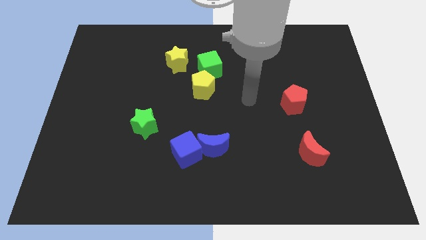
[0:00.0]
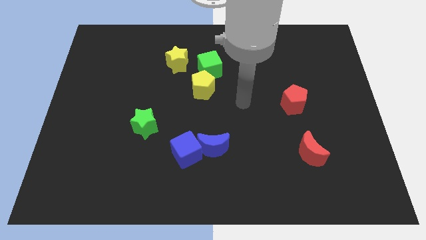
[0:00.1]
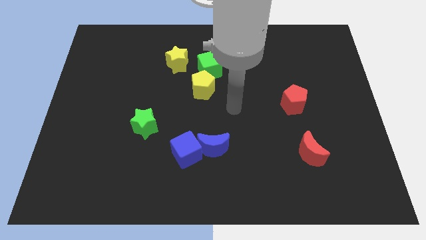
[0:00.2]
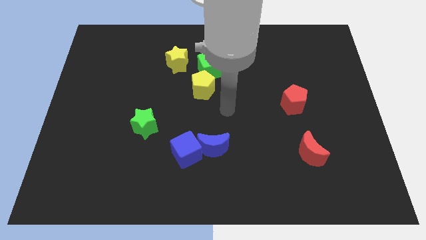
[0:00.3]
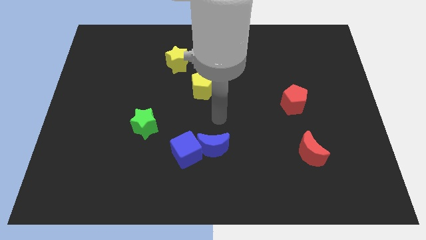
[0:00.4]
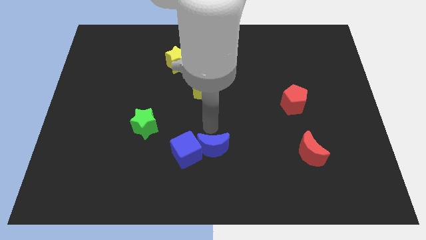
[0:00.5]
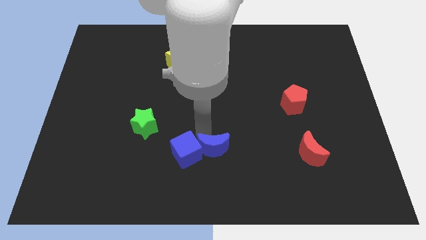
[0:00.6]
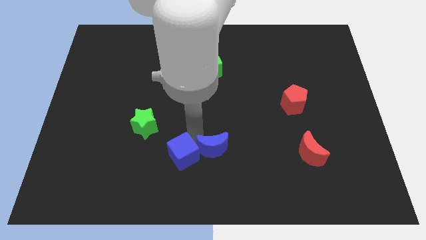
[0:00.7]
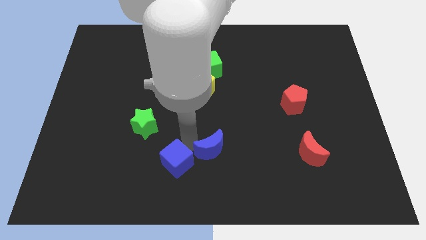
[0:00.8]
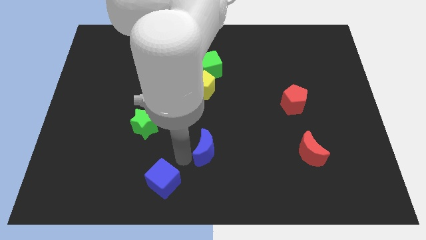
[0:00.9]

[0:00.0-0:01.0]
separate the blue moon from the blue cube

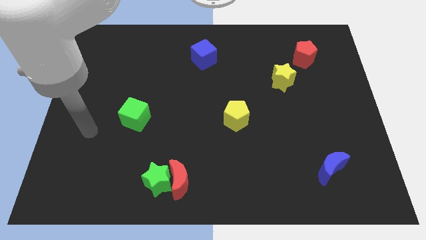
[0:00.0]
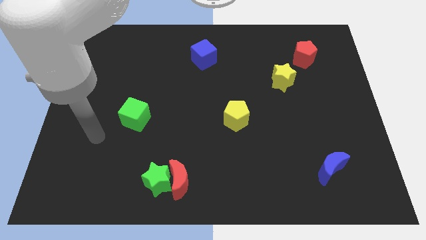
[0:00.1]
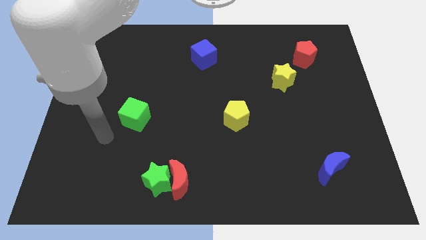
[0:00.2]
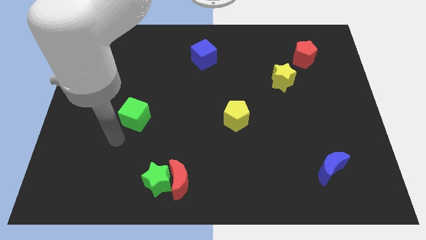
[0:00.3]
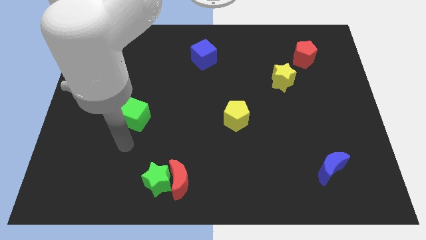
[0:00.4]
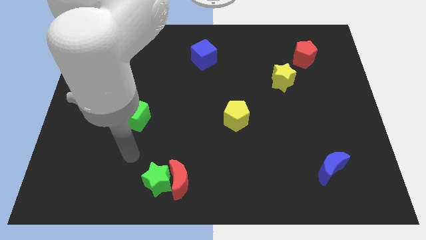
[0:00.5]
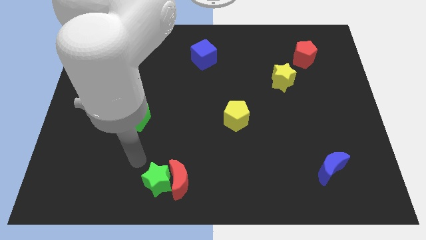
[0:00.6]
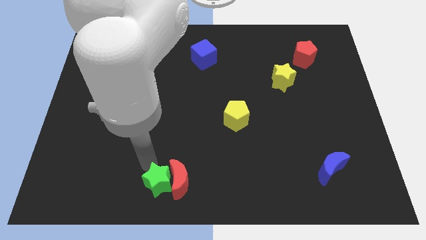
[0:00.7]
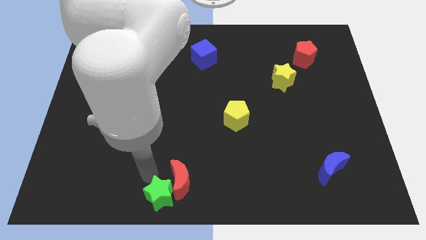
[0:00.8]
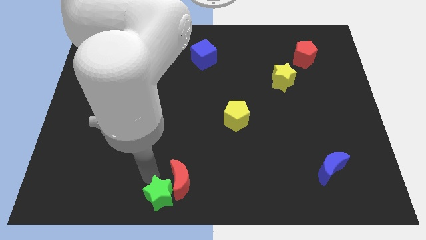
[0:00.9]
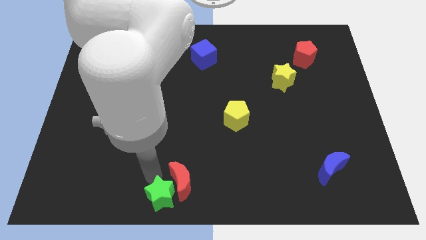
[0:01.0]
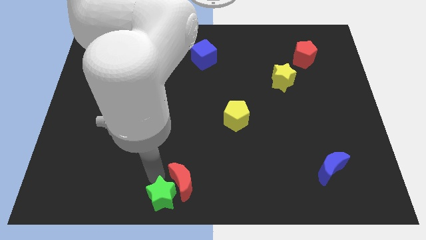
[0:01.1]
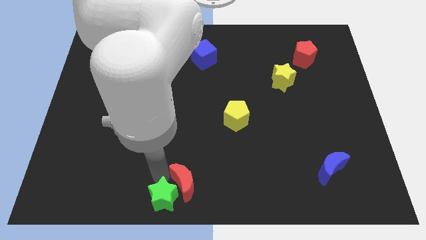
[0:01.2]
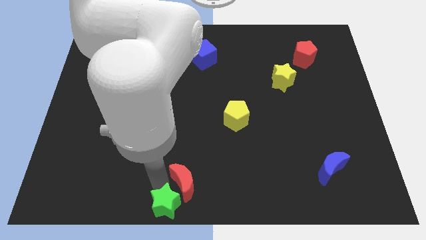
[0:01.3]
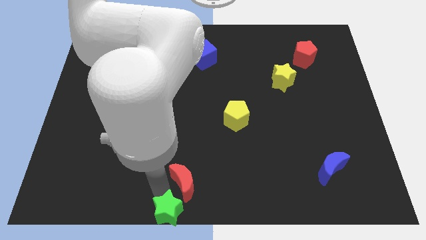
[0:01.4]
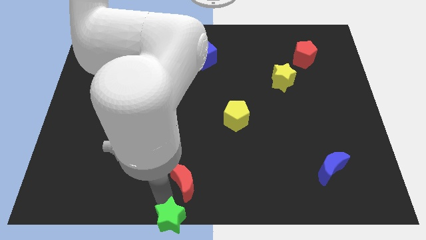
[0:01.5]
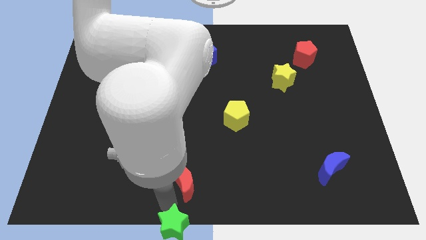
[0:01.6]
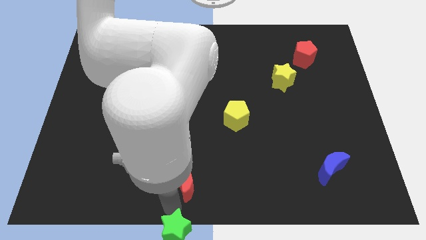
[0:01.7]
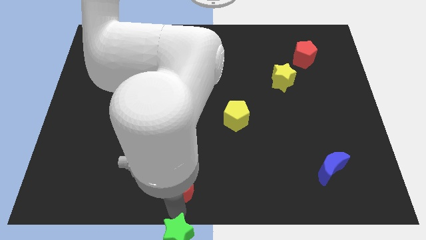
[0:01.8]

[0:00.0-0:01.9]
move the red moon away from the green star

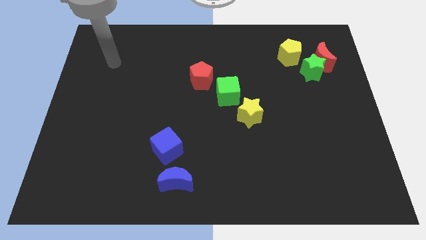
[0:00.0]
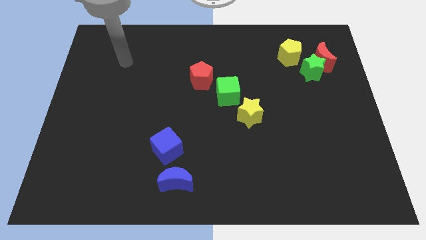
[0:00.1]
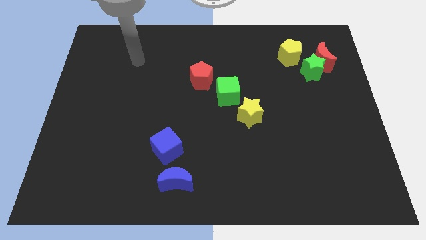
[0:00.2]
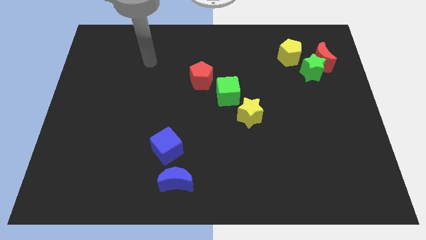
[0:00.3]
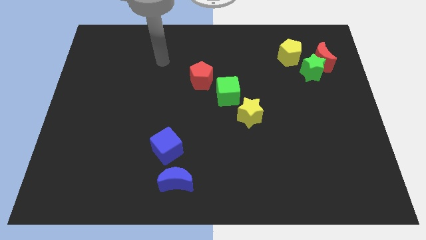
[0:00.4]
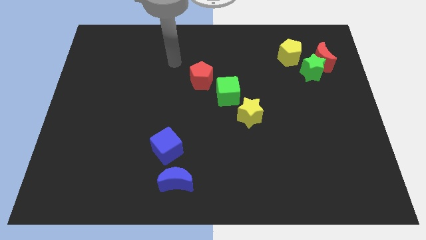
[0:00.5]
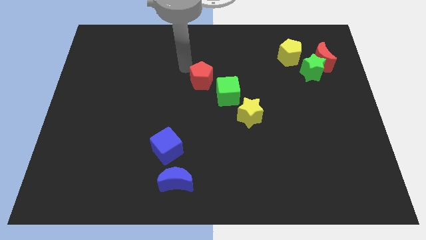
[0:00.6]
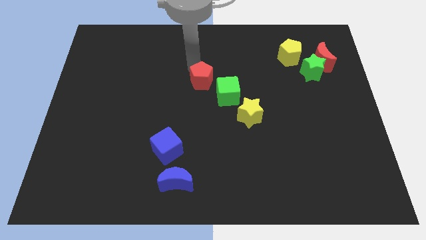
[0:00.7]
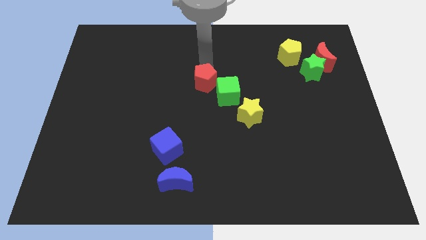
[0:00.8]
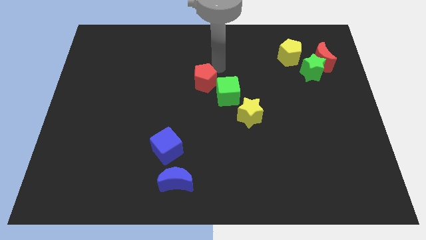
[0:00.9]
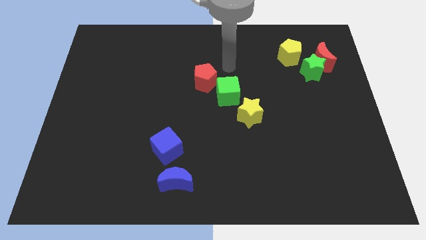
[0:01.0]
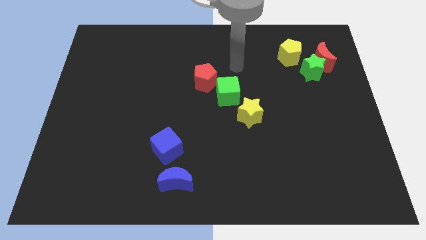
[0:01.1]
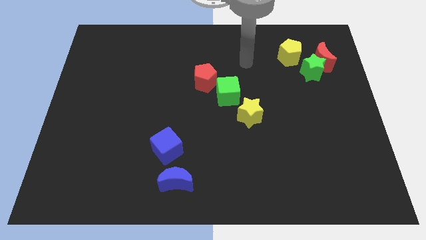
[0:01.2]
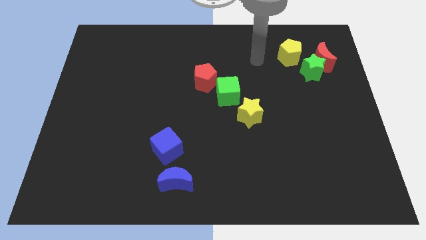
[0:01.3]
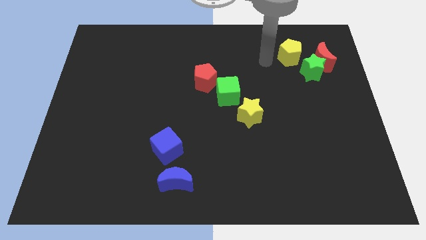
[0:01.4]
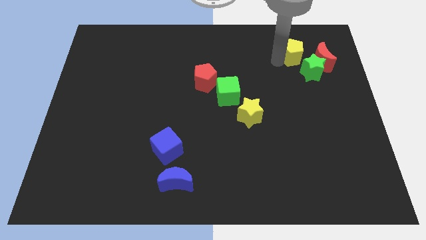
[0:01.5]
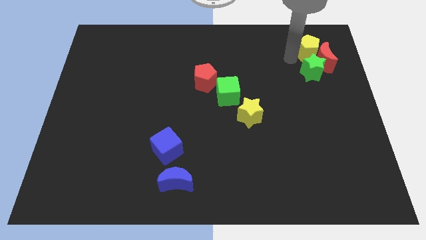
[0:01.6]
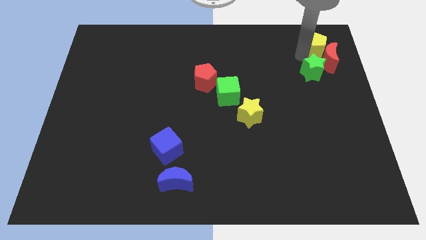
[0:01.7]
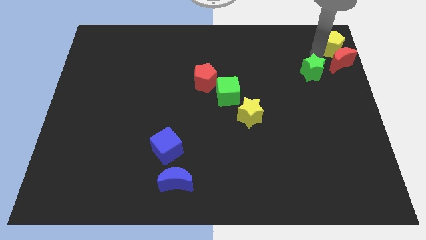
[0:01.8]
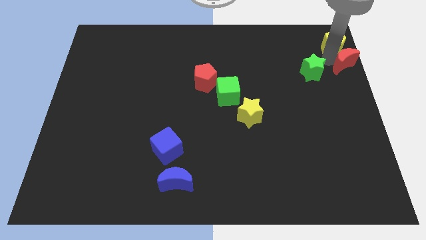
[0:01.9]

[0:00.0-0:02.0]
move the green star away from the red moon and yellow pentagon

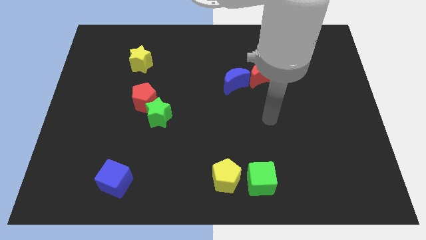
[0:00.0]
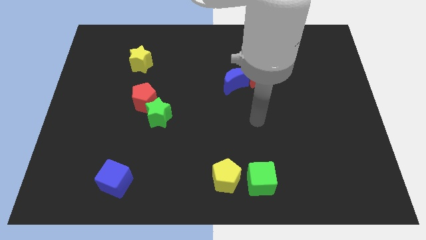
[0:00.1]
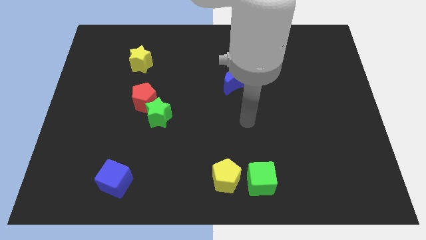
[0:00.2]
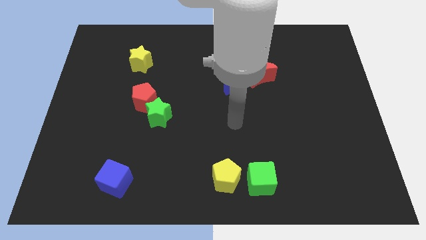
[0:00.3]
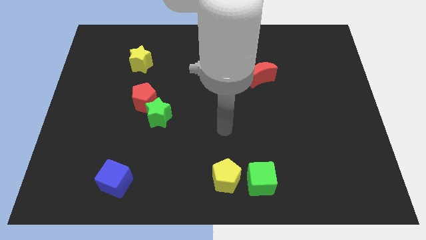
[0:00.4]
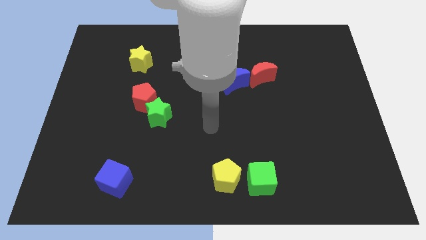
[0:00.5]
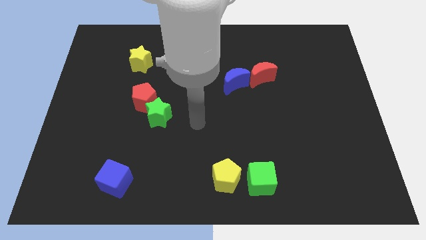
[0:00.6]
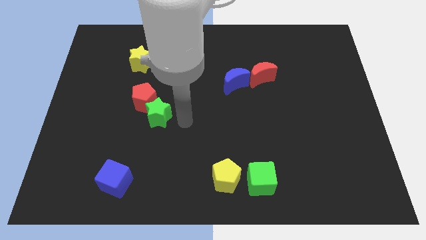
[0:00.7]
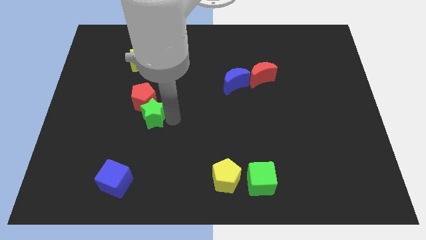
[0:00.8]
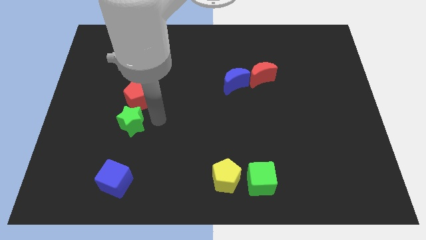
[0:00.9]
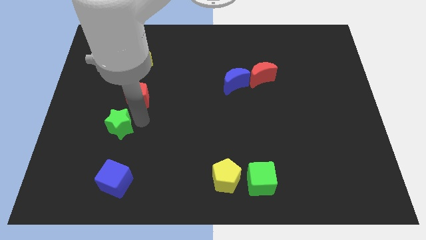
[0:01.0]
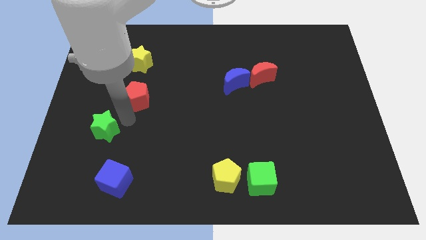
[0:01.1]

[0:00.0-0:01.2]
move the red pentagon away from the green star

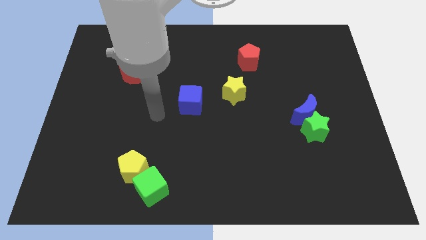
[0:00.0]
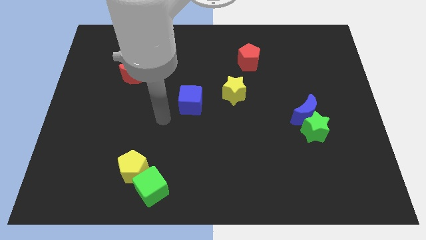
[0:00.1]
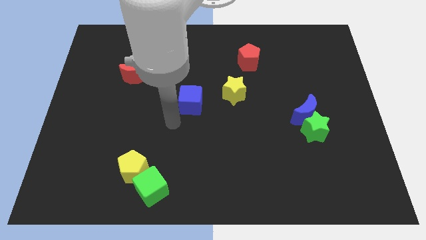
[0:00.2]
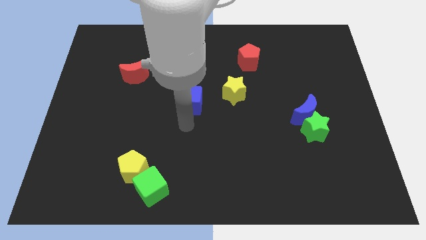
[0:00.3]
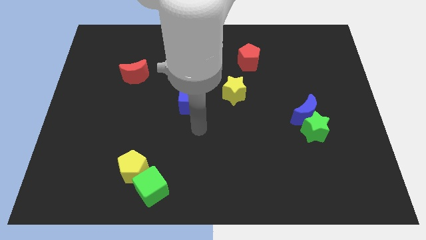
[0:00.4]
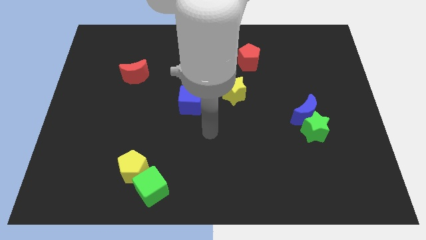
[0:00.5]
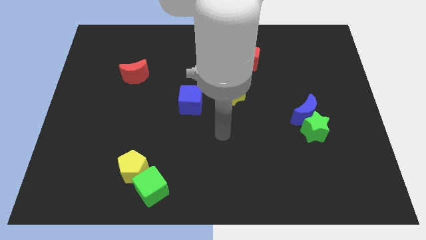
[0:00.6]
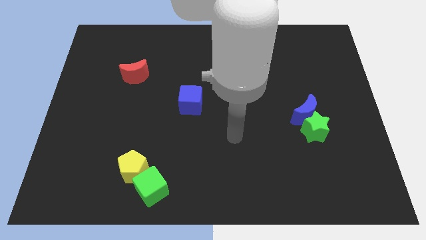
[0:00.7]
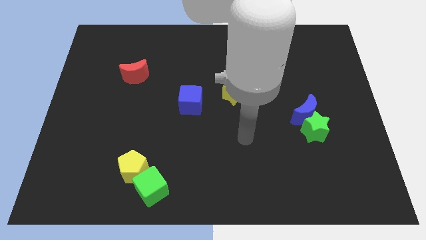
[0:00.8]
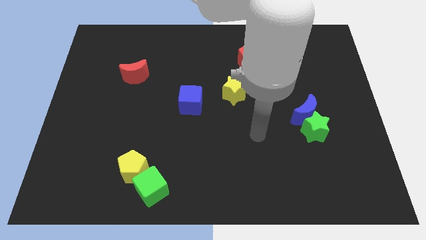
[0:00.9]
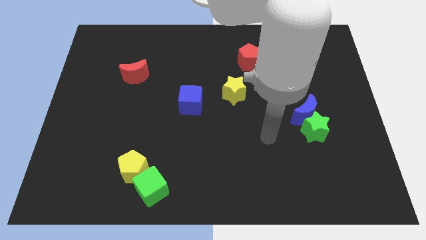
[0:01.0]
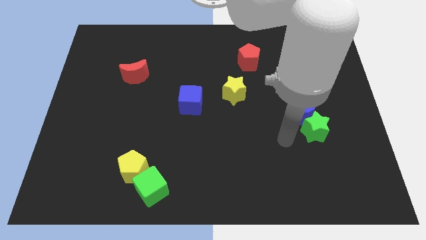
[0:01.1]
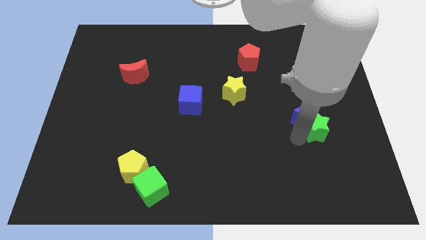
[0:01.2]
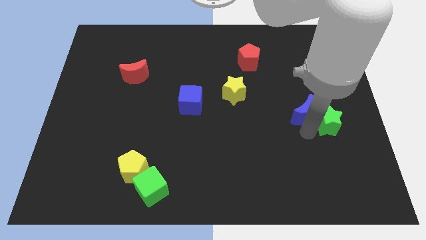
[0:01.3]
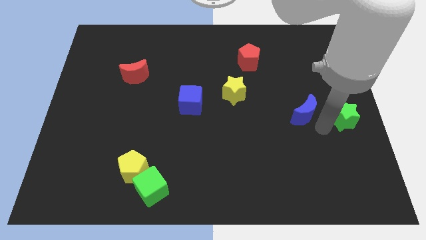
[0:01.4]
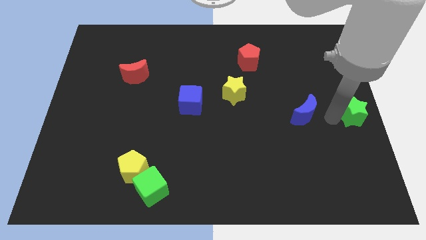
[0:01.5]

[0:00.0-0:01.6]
pull the blue moon apart from the green star

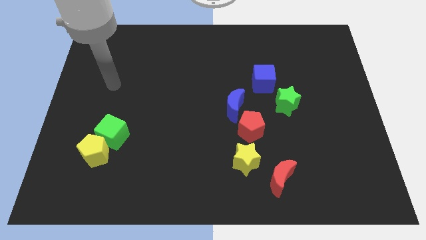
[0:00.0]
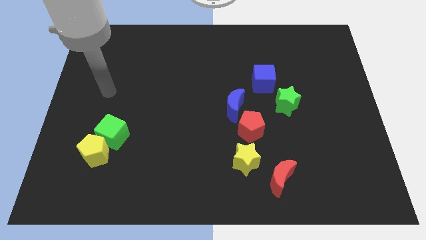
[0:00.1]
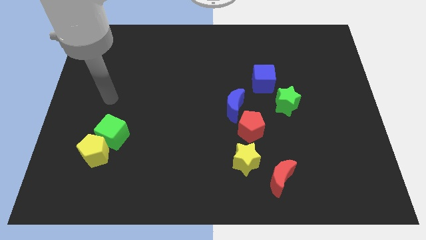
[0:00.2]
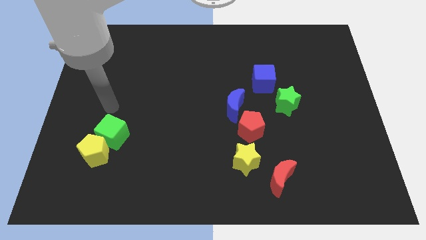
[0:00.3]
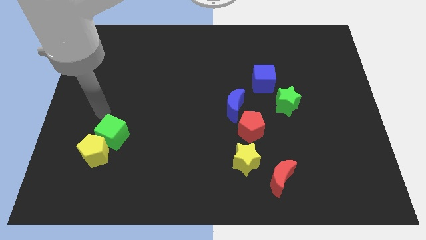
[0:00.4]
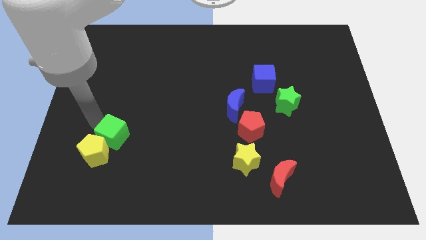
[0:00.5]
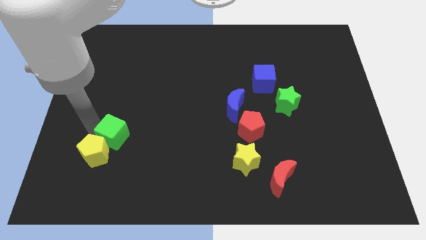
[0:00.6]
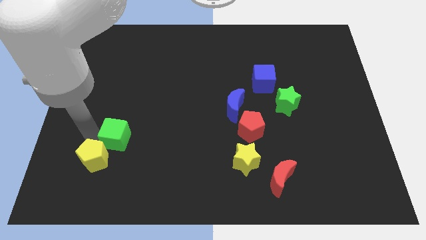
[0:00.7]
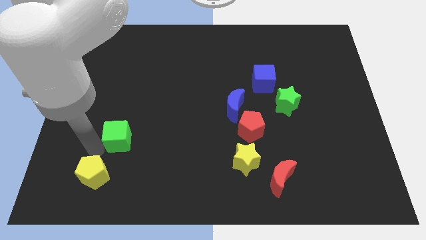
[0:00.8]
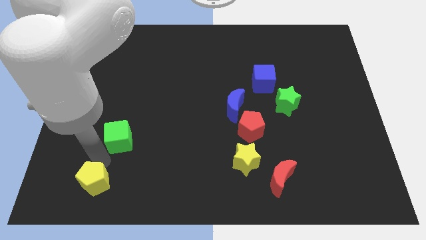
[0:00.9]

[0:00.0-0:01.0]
pull the green cube apart from the yellow pentagon

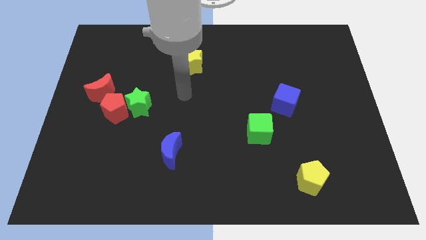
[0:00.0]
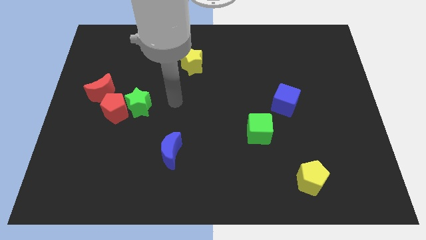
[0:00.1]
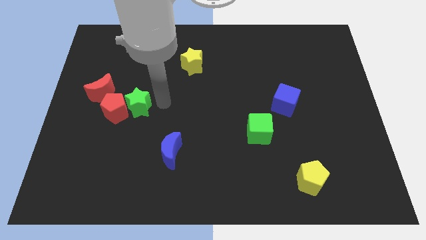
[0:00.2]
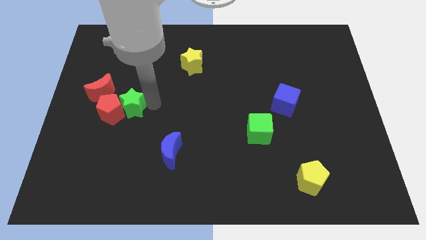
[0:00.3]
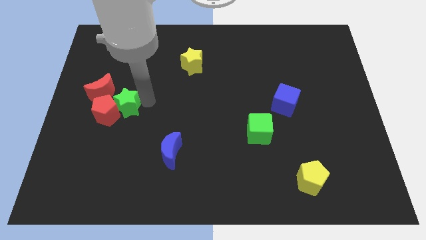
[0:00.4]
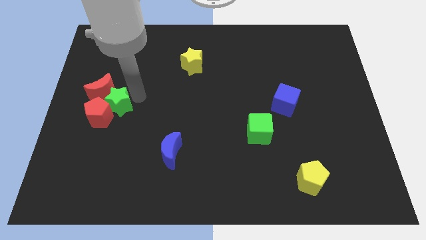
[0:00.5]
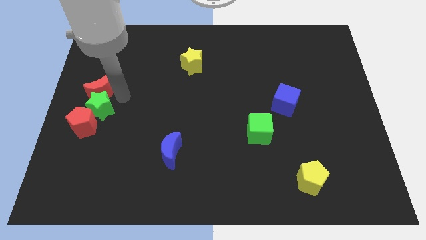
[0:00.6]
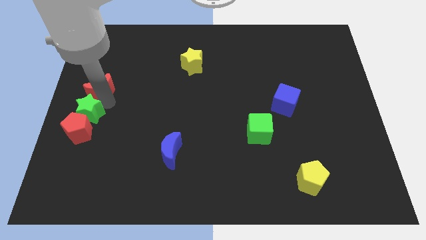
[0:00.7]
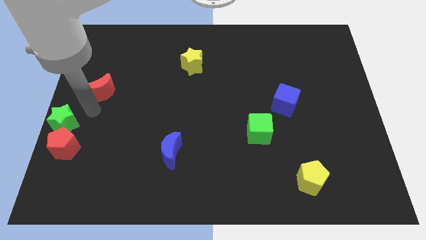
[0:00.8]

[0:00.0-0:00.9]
separate the red pentagon from the green star and red moon
